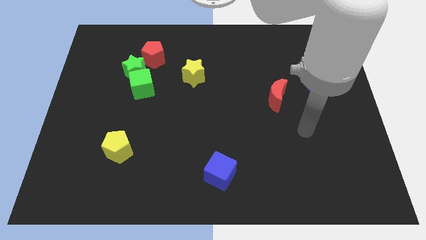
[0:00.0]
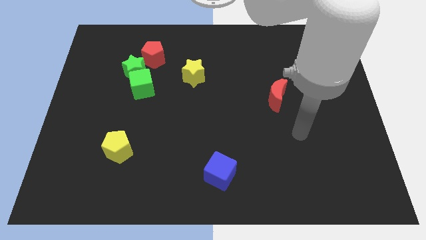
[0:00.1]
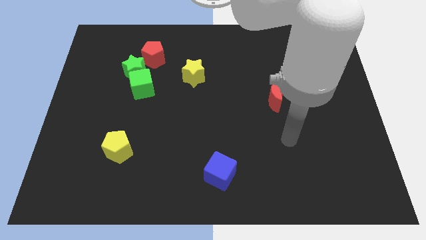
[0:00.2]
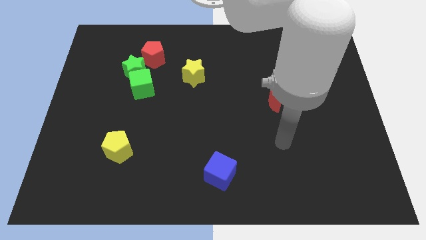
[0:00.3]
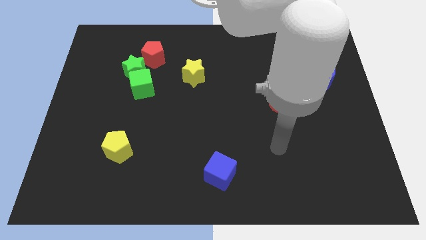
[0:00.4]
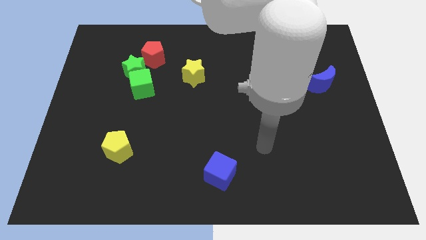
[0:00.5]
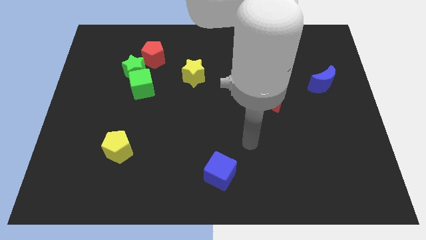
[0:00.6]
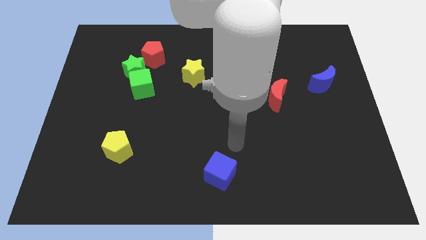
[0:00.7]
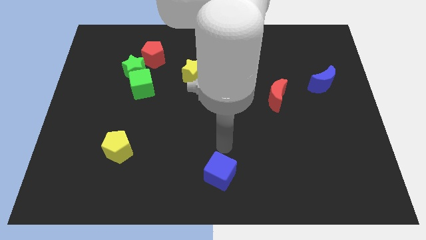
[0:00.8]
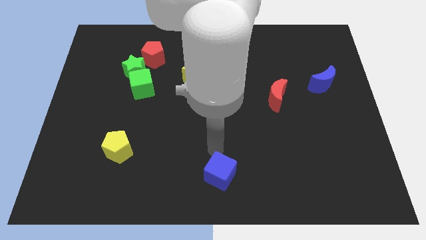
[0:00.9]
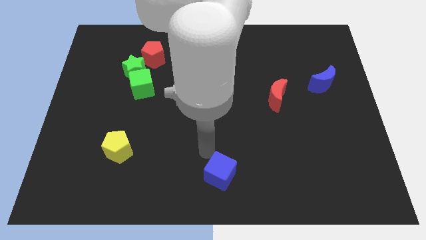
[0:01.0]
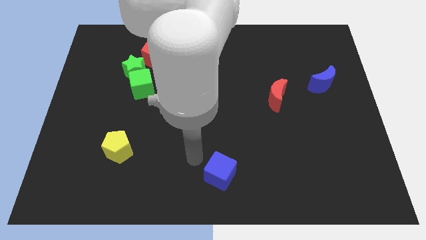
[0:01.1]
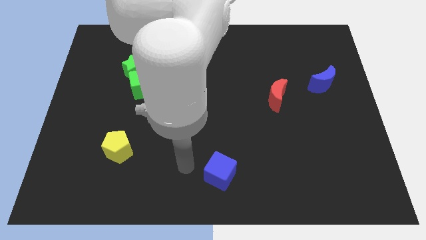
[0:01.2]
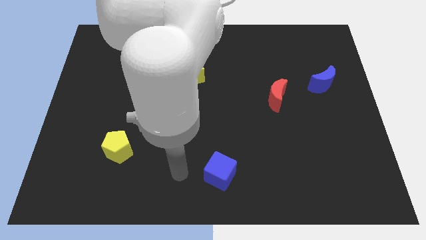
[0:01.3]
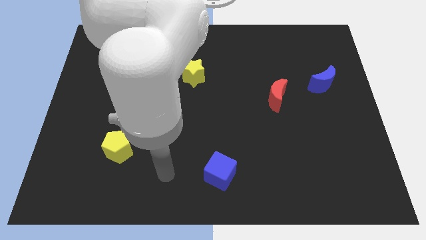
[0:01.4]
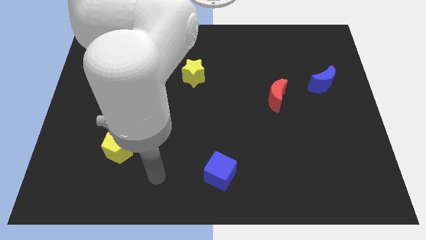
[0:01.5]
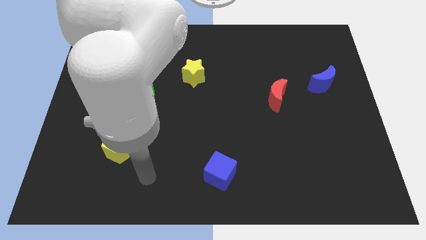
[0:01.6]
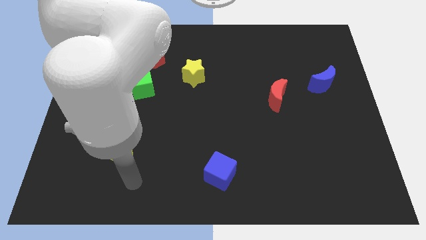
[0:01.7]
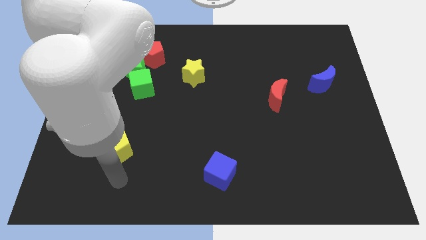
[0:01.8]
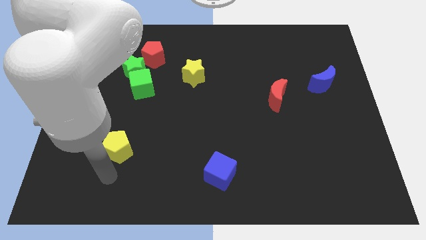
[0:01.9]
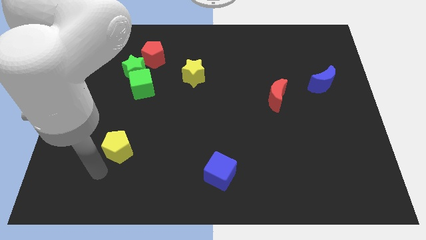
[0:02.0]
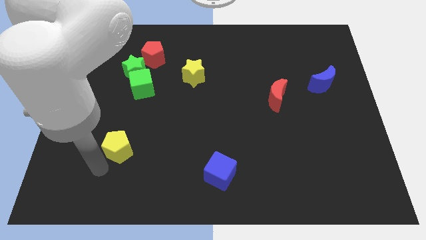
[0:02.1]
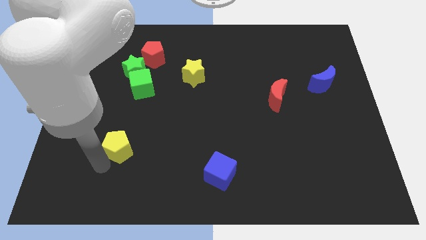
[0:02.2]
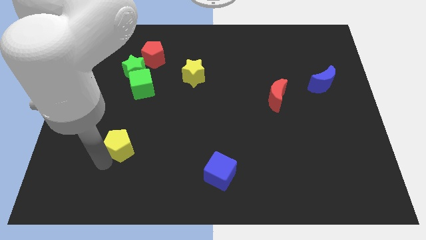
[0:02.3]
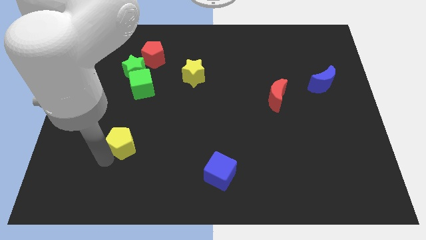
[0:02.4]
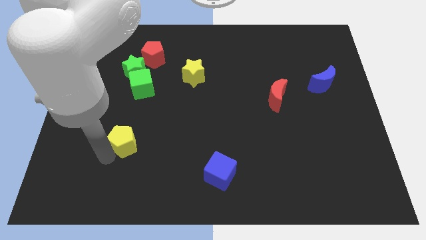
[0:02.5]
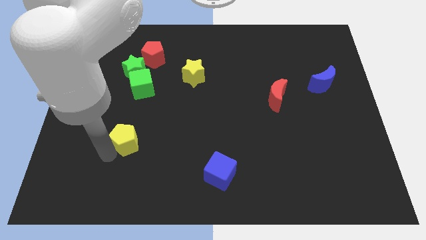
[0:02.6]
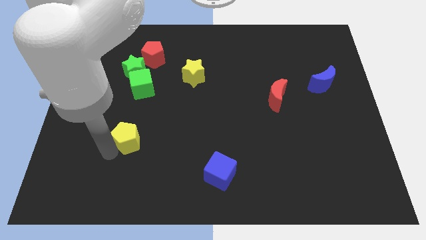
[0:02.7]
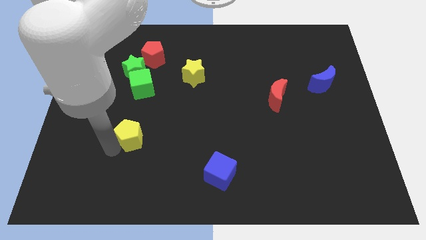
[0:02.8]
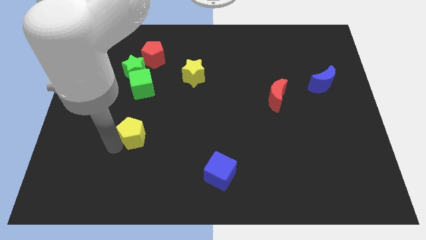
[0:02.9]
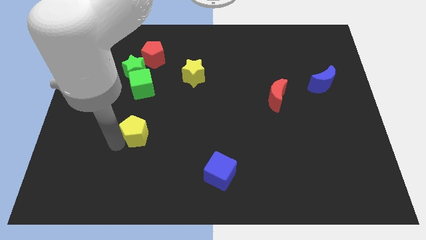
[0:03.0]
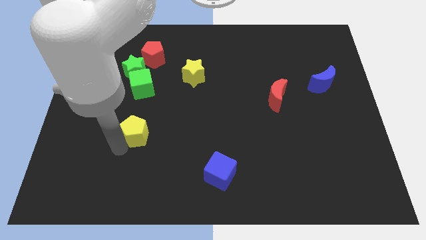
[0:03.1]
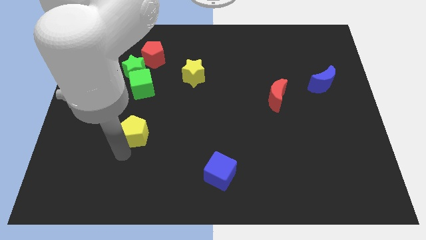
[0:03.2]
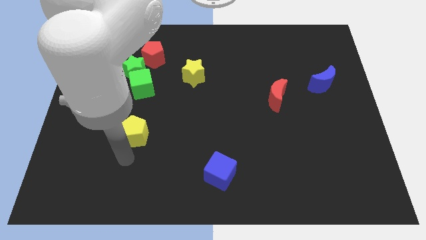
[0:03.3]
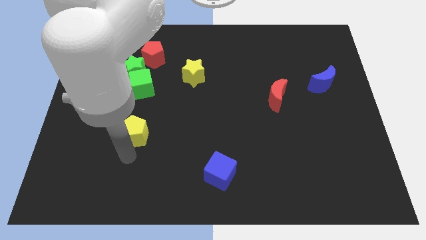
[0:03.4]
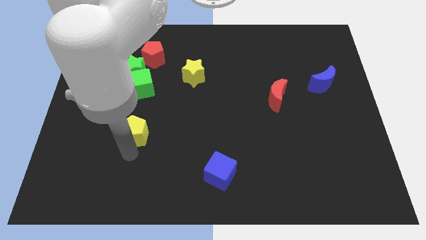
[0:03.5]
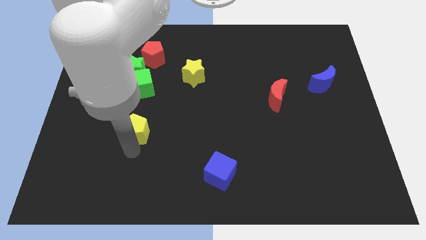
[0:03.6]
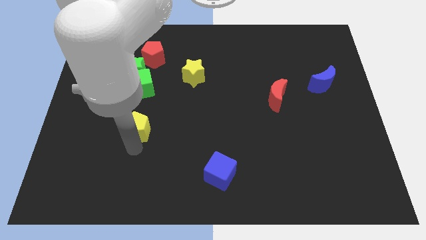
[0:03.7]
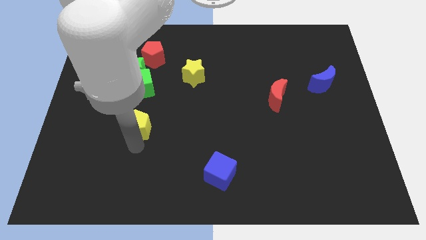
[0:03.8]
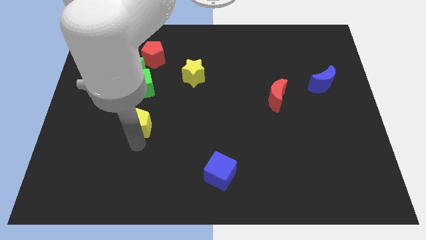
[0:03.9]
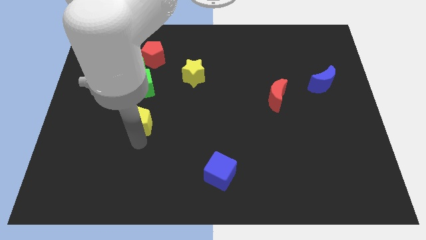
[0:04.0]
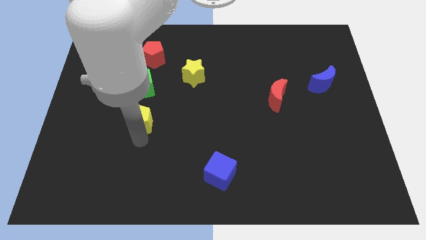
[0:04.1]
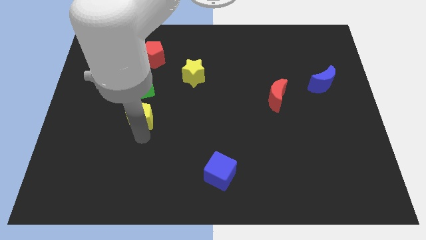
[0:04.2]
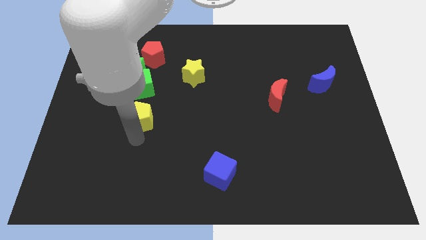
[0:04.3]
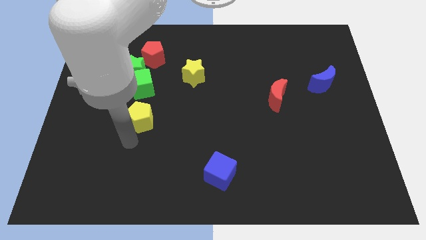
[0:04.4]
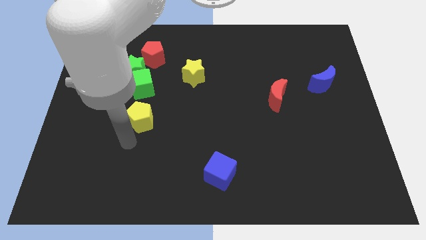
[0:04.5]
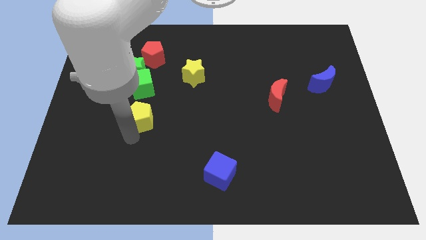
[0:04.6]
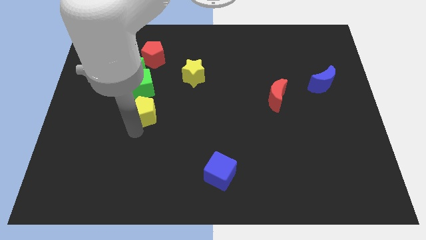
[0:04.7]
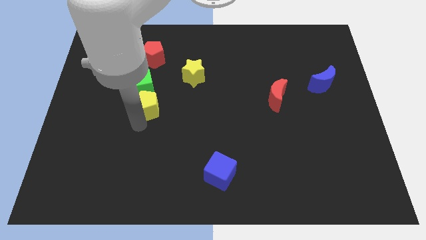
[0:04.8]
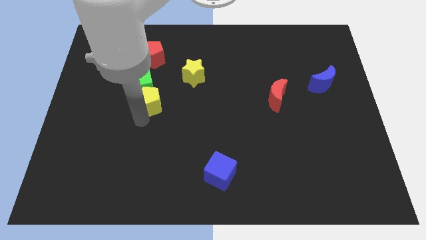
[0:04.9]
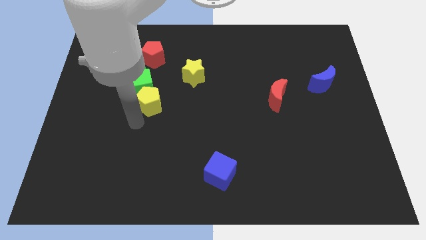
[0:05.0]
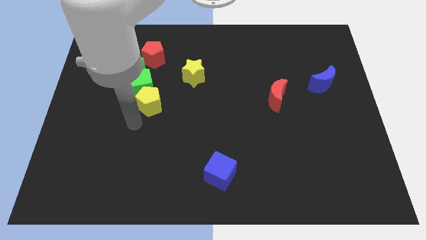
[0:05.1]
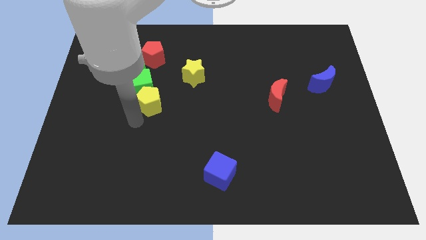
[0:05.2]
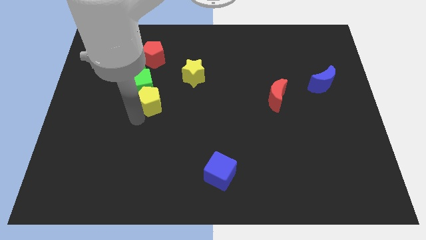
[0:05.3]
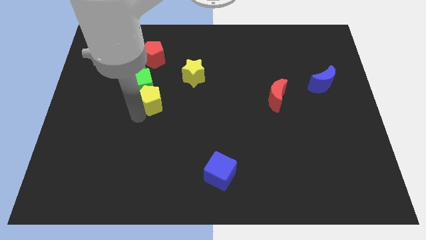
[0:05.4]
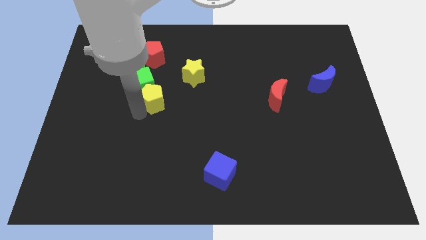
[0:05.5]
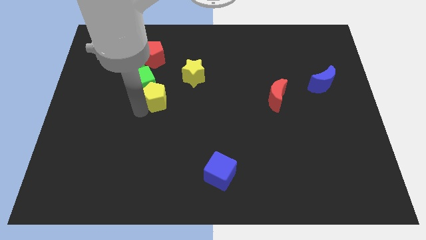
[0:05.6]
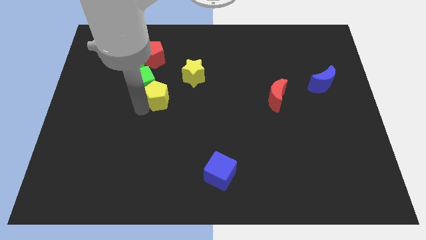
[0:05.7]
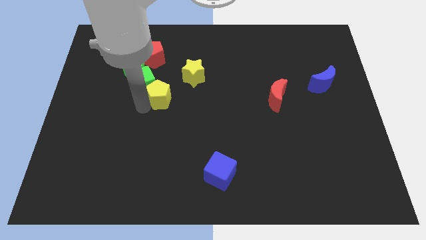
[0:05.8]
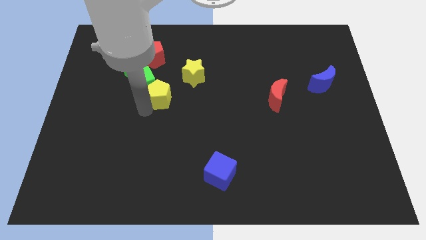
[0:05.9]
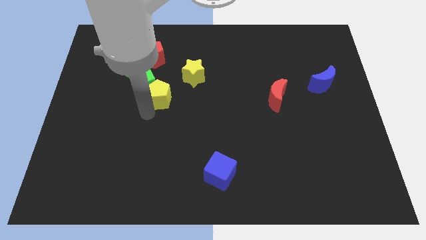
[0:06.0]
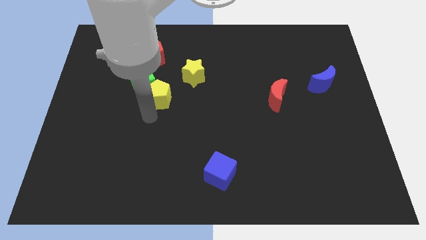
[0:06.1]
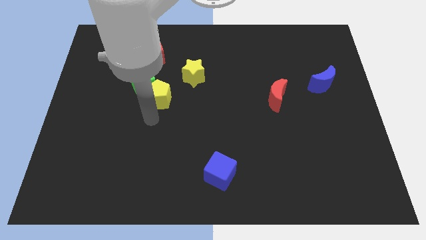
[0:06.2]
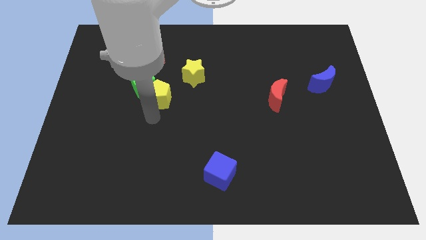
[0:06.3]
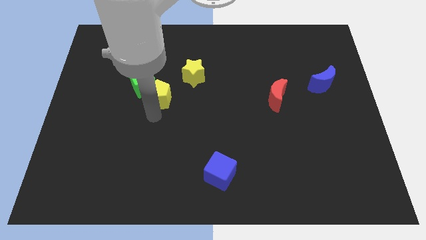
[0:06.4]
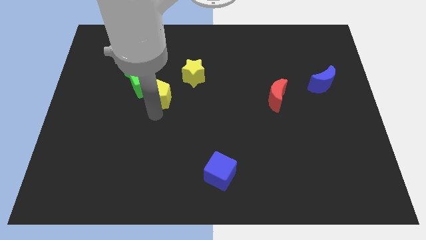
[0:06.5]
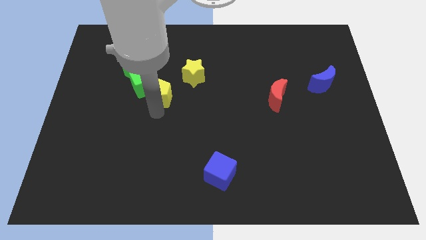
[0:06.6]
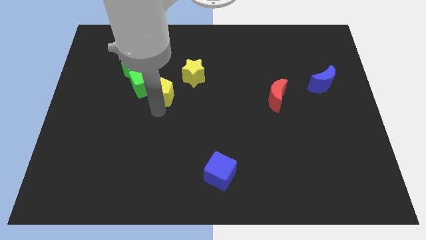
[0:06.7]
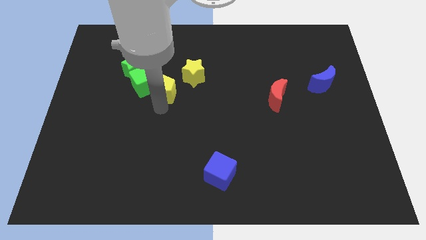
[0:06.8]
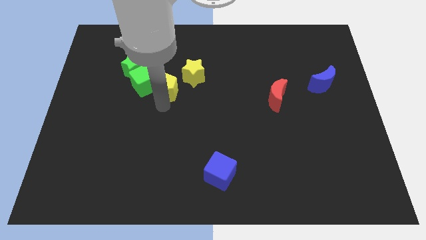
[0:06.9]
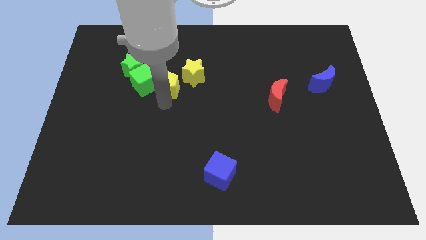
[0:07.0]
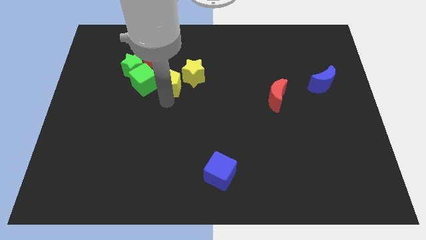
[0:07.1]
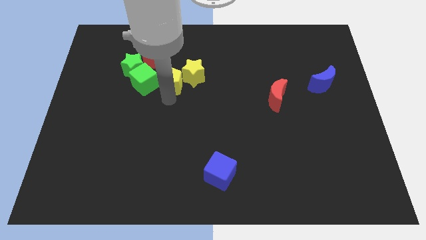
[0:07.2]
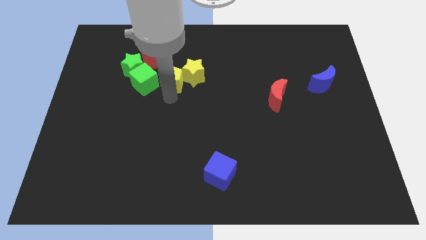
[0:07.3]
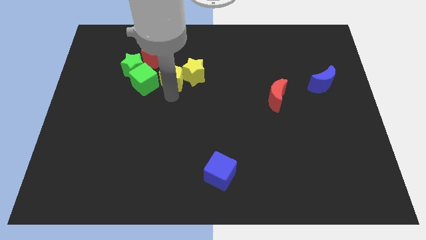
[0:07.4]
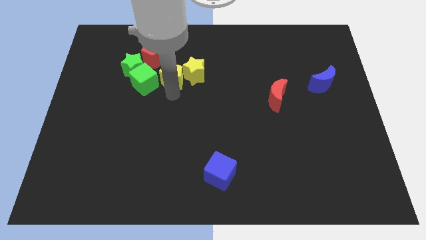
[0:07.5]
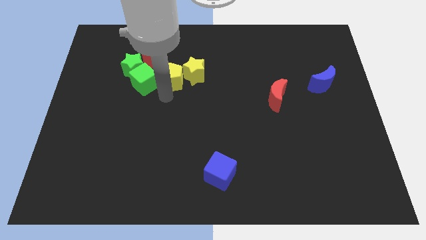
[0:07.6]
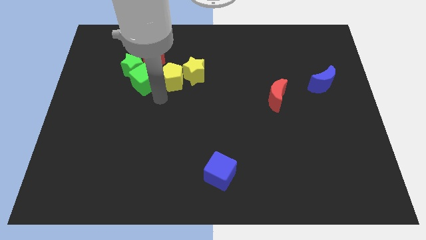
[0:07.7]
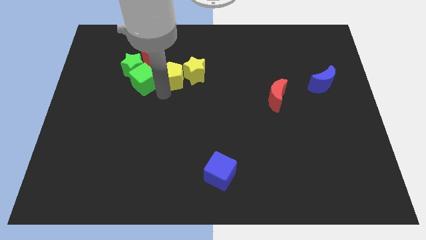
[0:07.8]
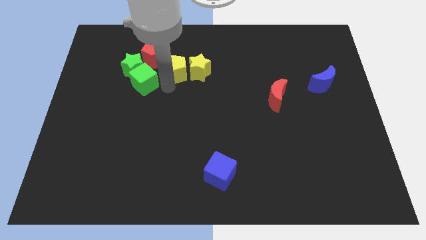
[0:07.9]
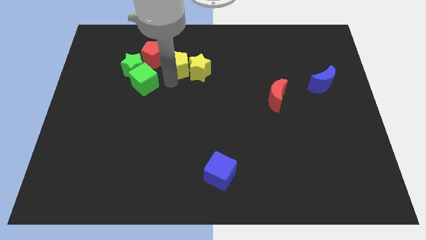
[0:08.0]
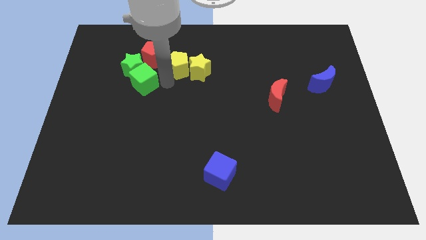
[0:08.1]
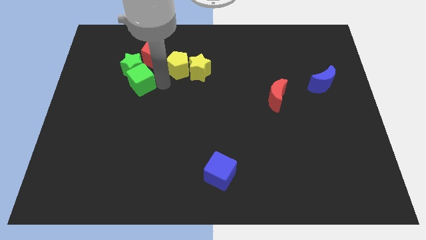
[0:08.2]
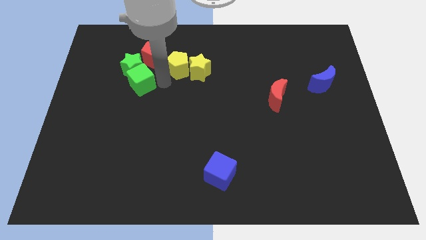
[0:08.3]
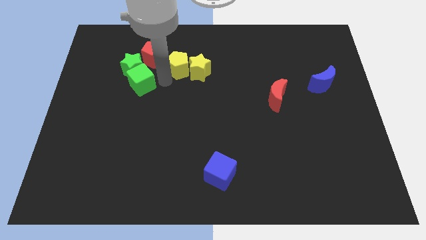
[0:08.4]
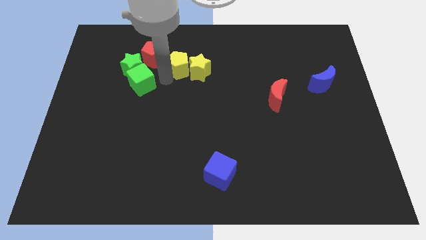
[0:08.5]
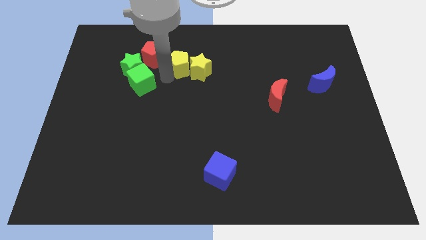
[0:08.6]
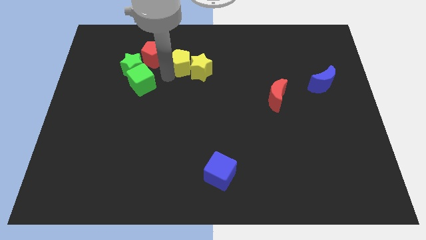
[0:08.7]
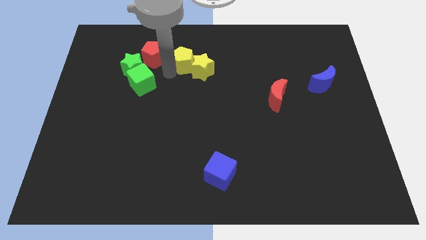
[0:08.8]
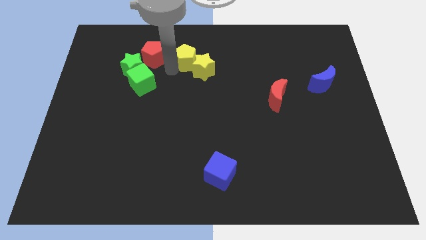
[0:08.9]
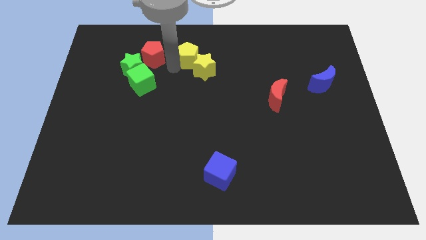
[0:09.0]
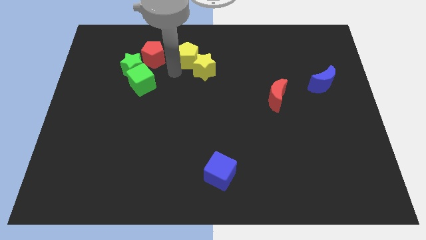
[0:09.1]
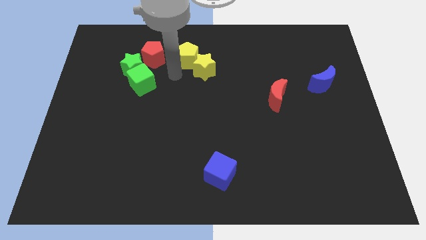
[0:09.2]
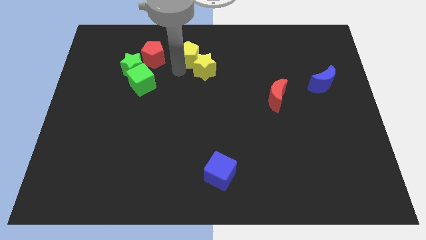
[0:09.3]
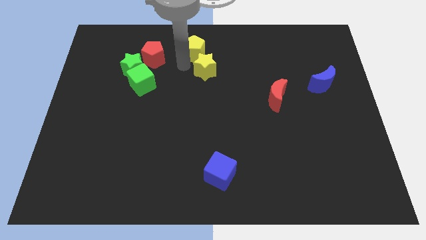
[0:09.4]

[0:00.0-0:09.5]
put the yellow pentagon to the top side
